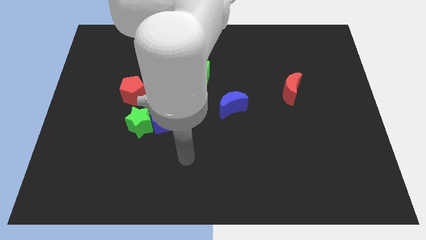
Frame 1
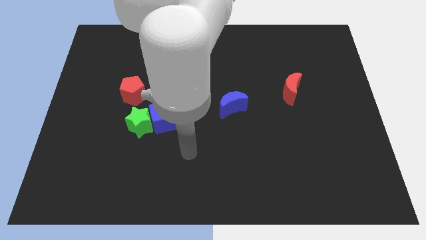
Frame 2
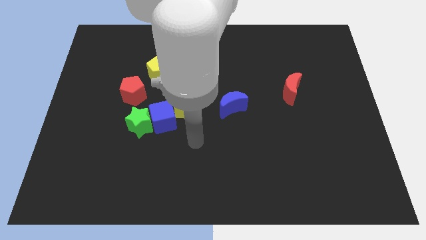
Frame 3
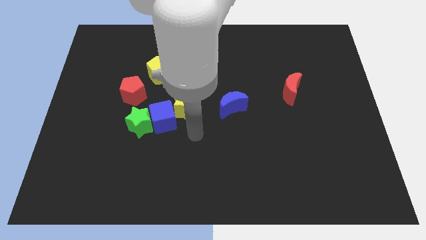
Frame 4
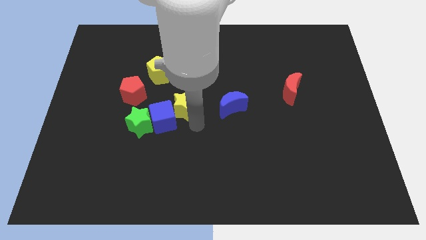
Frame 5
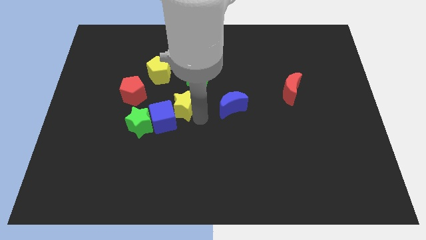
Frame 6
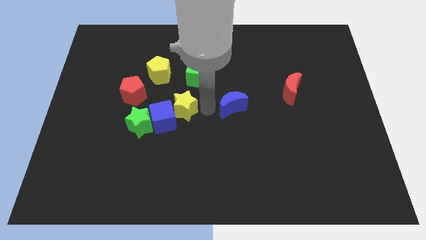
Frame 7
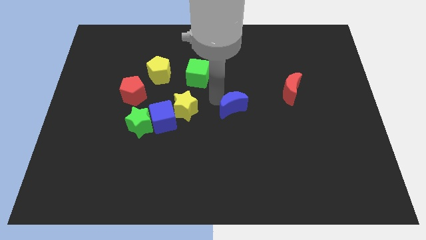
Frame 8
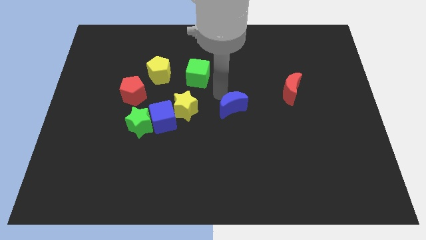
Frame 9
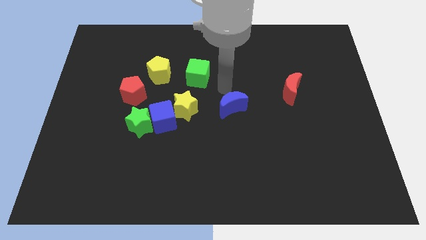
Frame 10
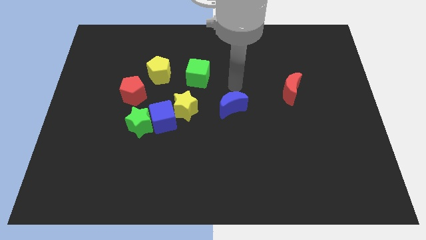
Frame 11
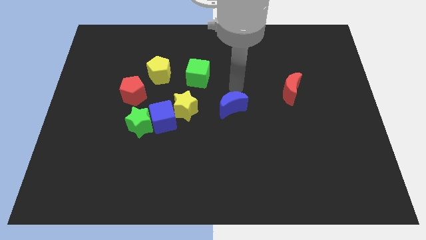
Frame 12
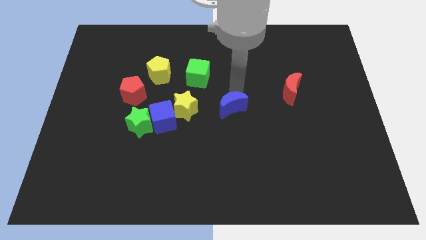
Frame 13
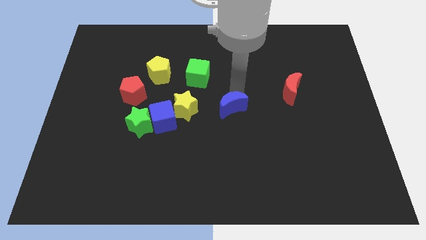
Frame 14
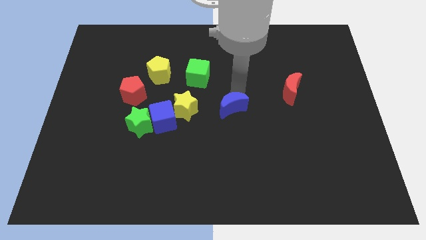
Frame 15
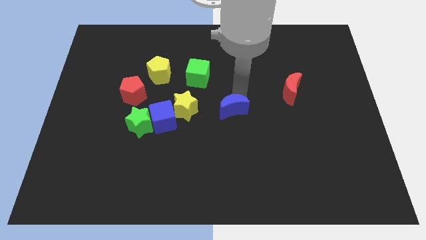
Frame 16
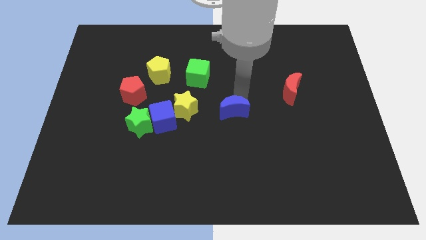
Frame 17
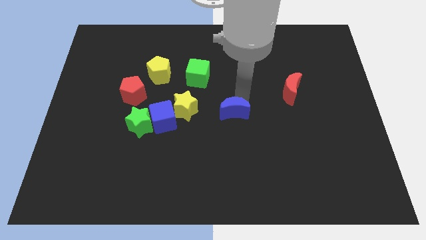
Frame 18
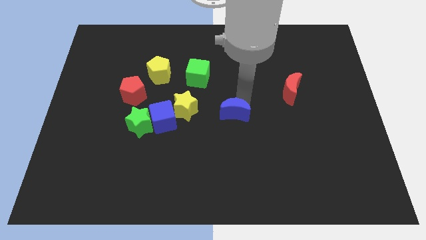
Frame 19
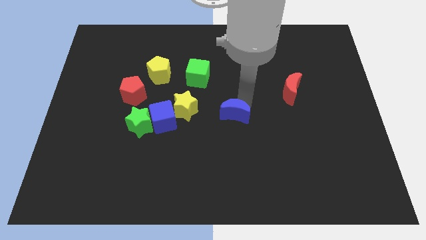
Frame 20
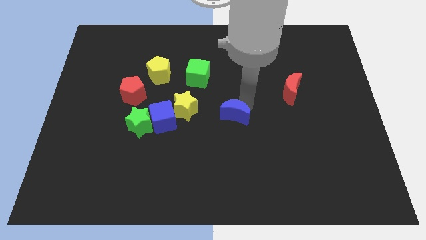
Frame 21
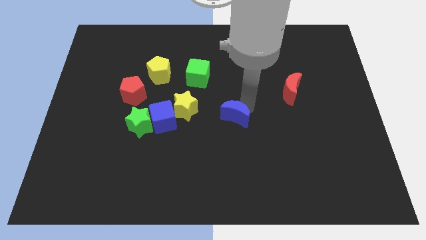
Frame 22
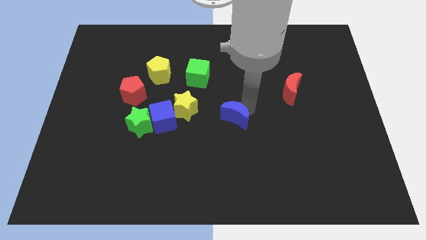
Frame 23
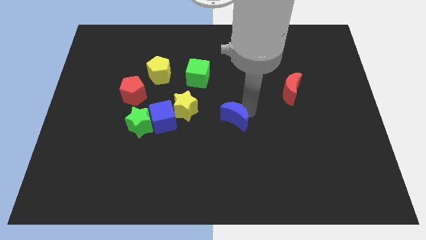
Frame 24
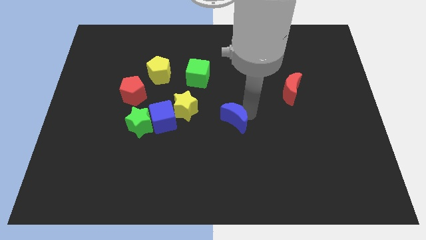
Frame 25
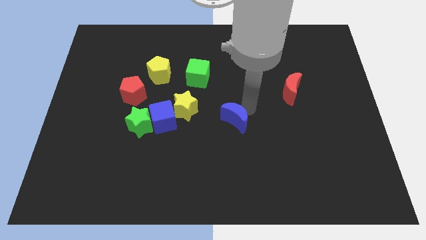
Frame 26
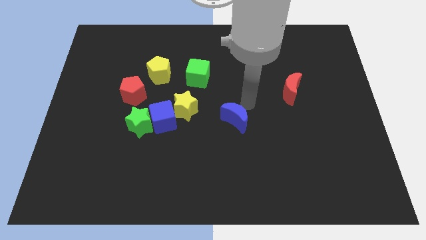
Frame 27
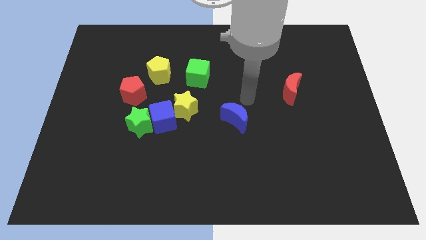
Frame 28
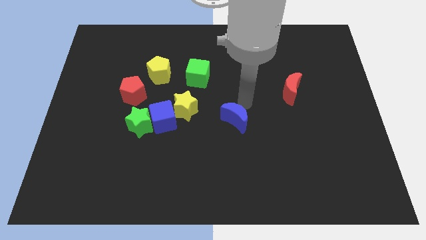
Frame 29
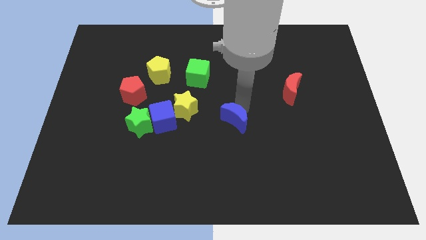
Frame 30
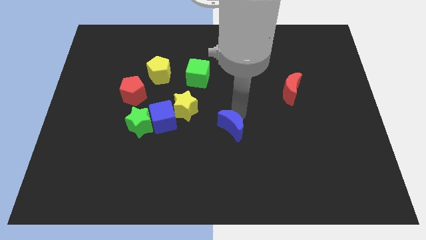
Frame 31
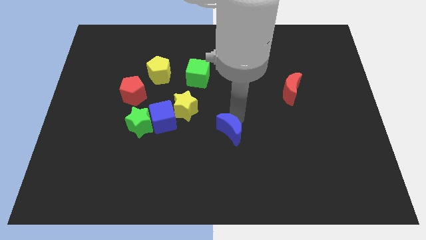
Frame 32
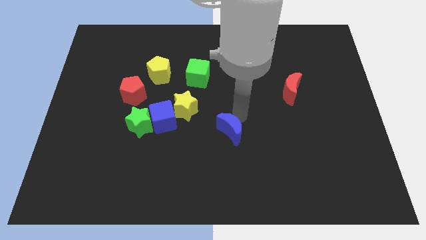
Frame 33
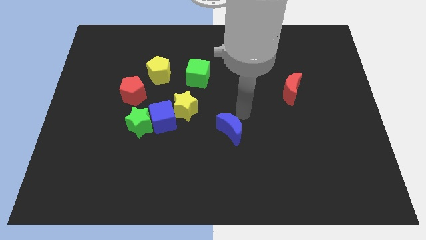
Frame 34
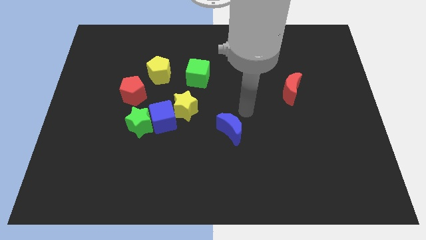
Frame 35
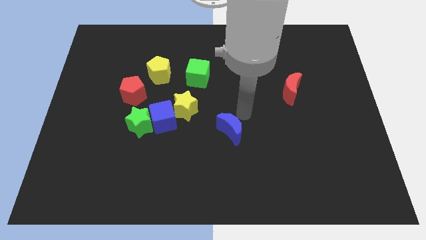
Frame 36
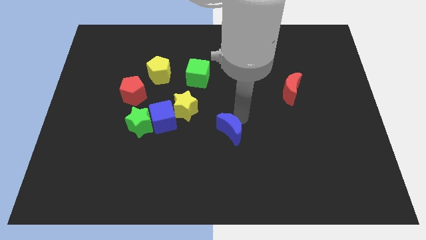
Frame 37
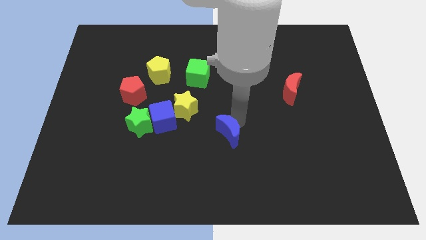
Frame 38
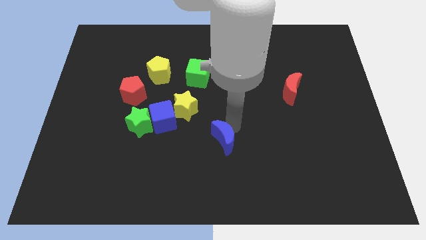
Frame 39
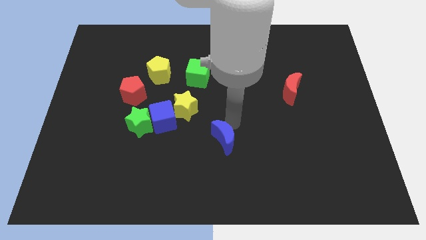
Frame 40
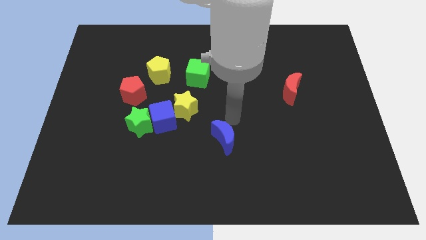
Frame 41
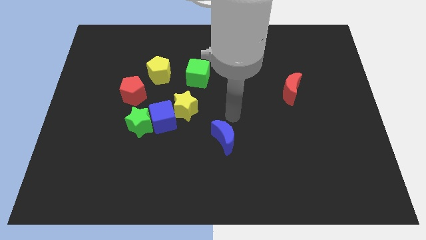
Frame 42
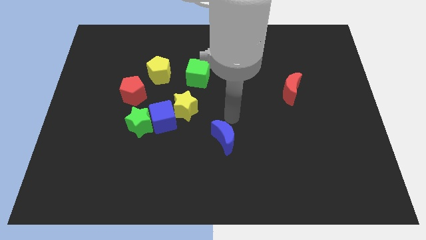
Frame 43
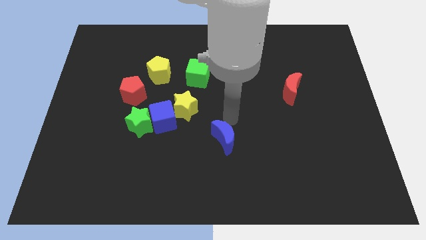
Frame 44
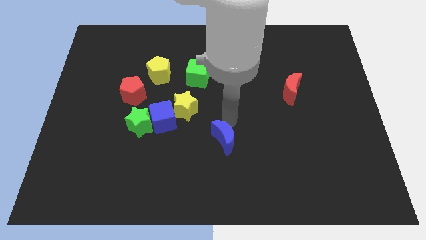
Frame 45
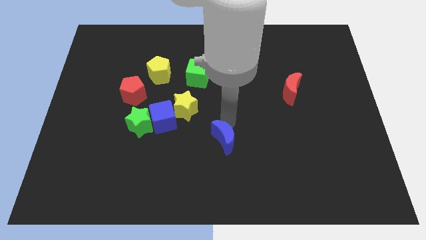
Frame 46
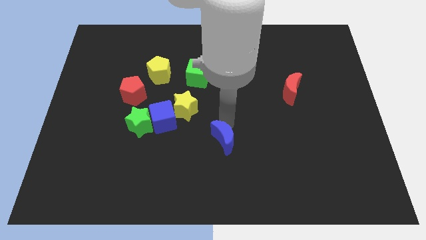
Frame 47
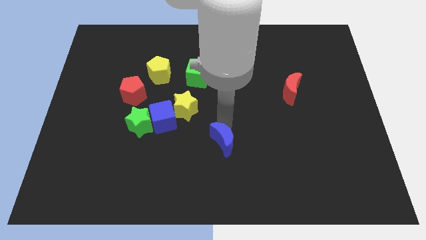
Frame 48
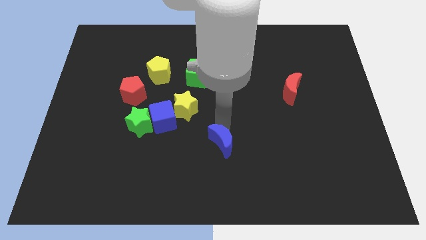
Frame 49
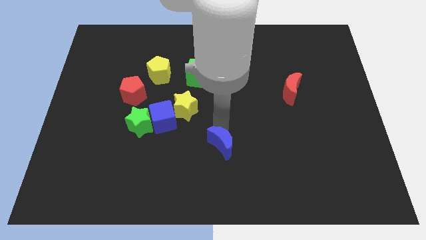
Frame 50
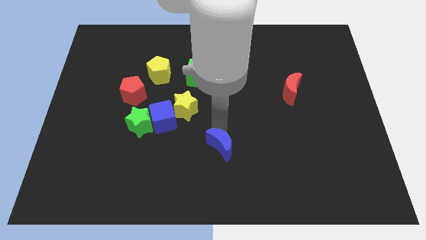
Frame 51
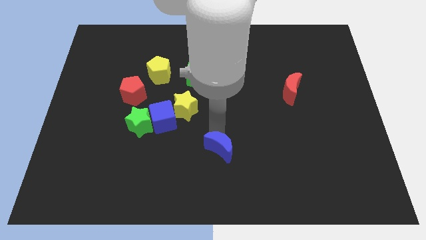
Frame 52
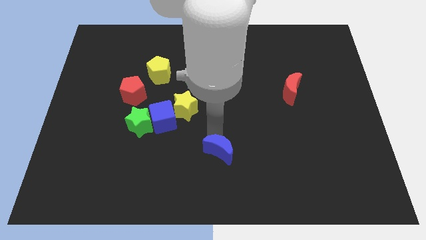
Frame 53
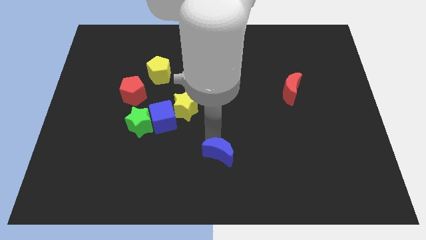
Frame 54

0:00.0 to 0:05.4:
slide the blue moon to the bottom

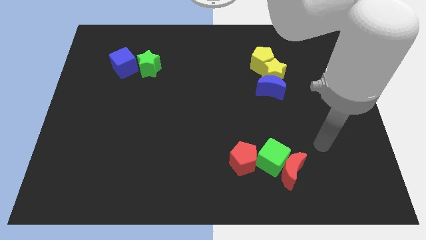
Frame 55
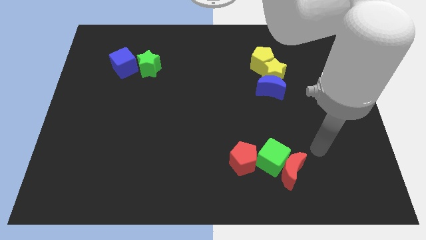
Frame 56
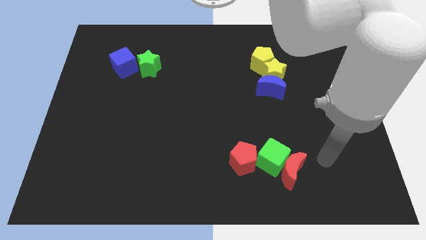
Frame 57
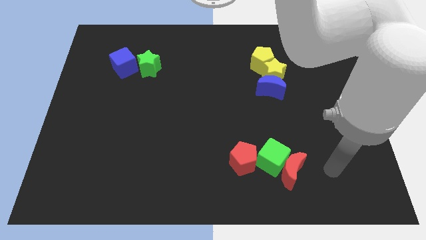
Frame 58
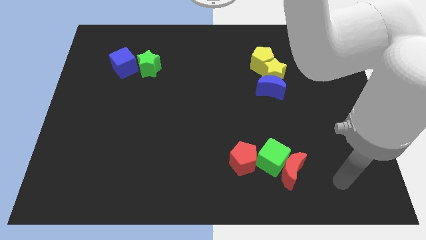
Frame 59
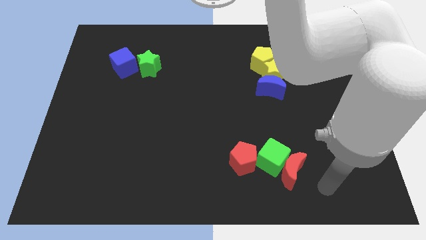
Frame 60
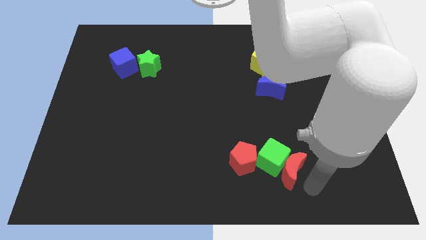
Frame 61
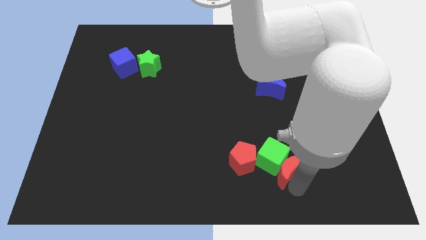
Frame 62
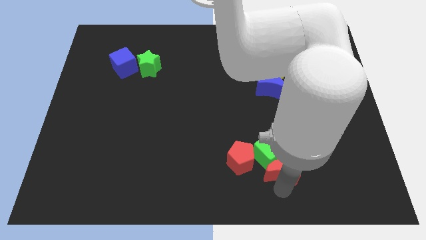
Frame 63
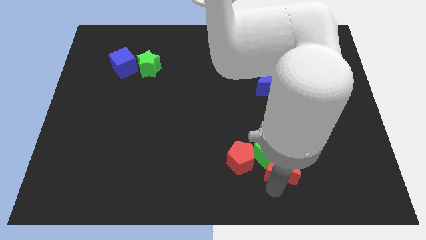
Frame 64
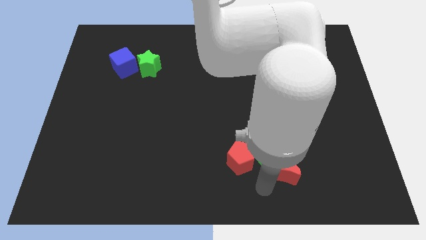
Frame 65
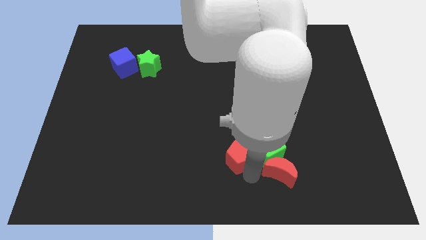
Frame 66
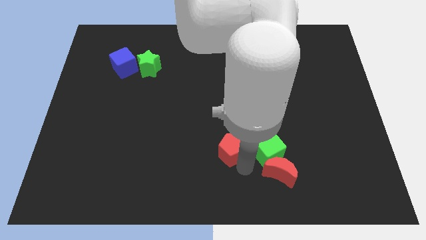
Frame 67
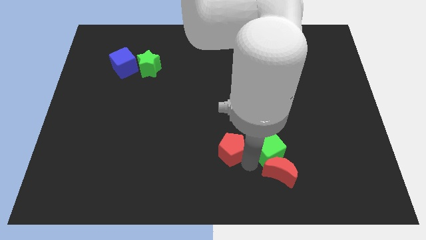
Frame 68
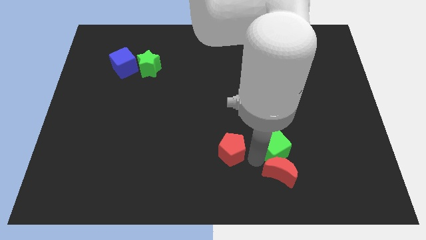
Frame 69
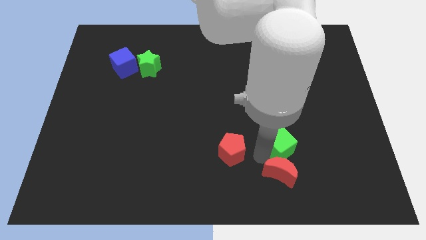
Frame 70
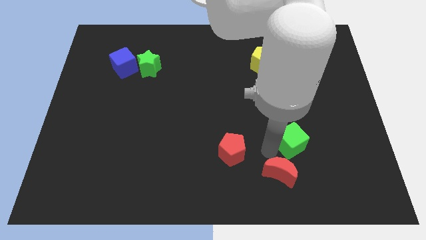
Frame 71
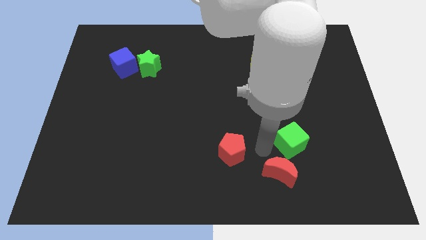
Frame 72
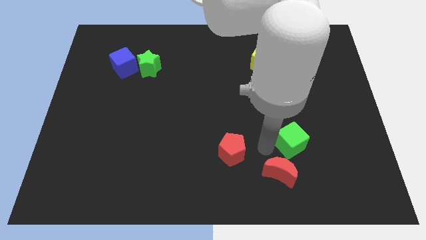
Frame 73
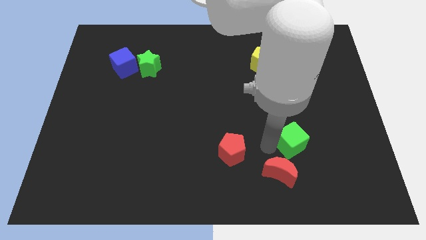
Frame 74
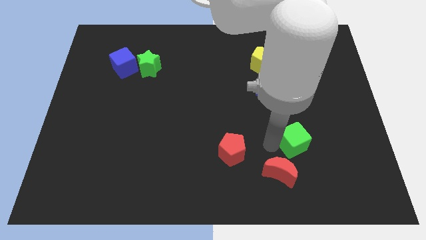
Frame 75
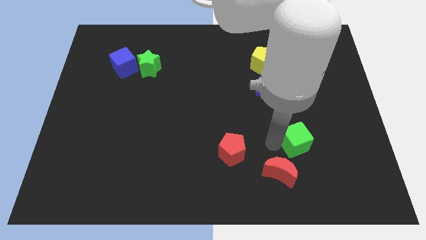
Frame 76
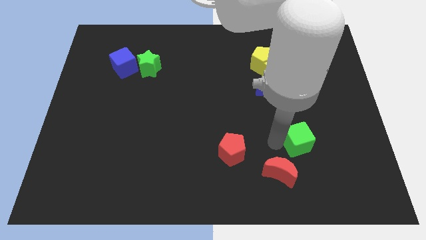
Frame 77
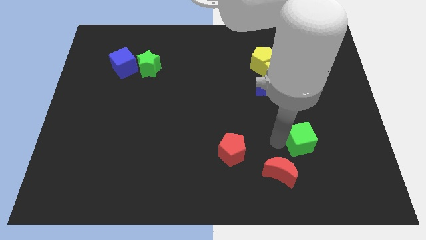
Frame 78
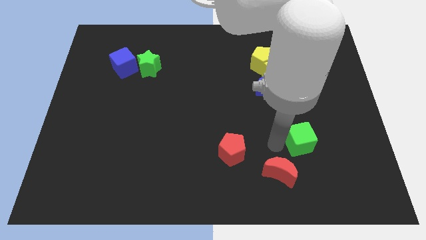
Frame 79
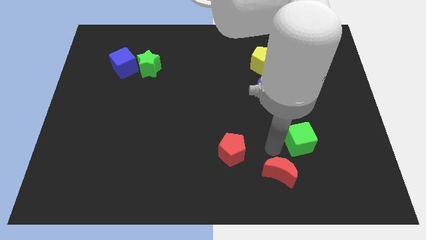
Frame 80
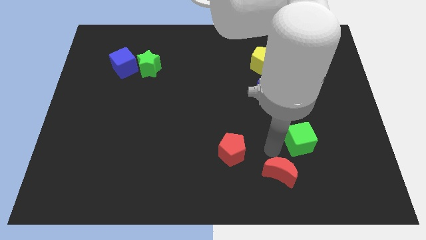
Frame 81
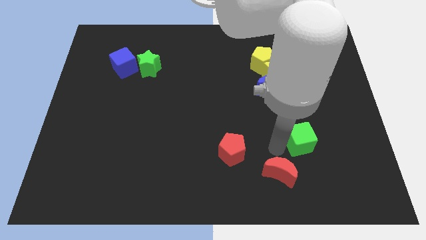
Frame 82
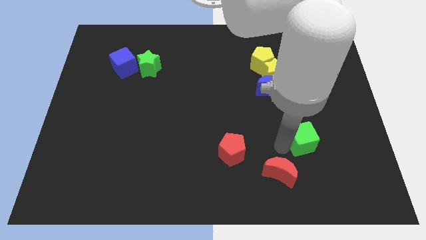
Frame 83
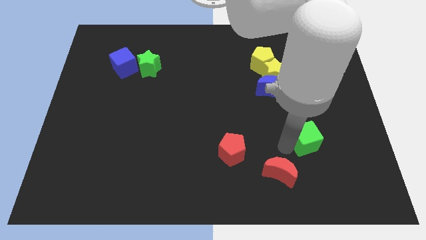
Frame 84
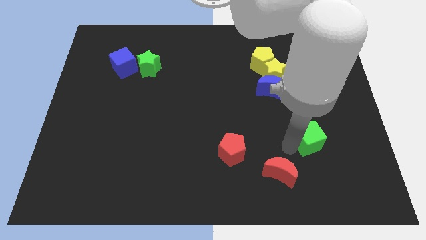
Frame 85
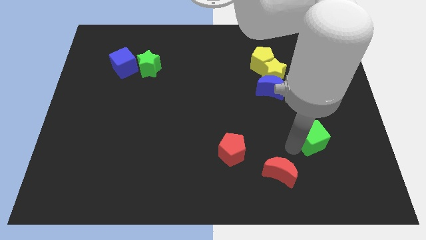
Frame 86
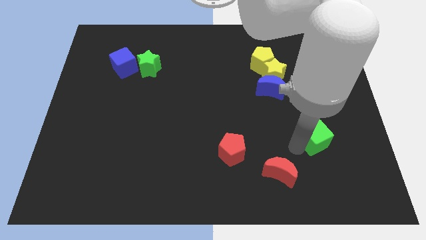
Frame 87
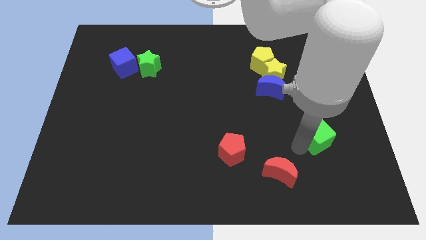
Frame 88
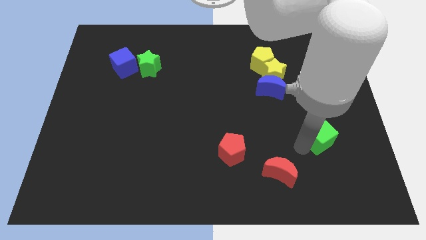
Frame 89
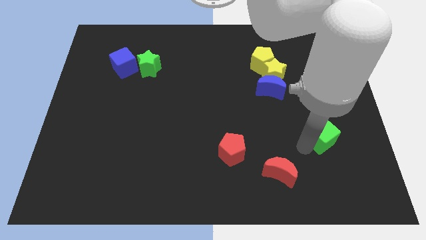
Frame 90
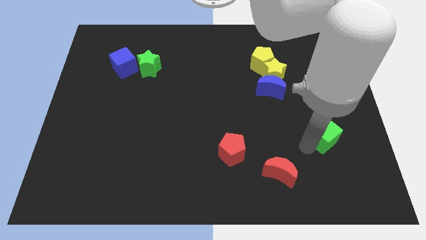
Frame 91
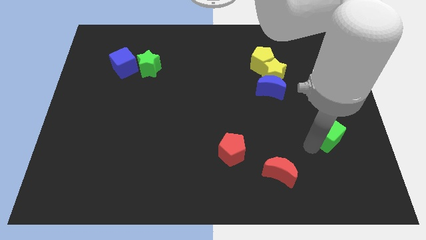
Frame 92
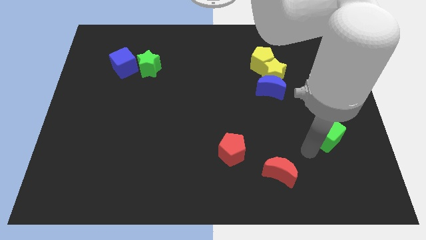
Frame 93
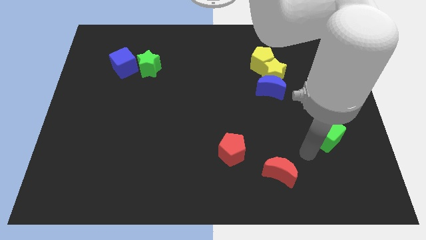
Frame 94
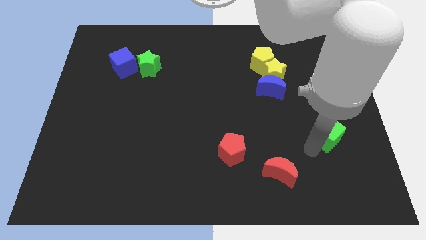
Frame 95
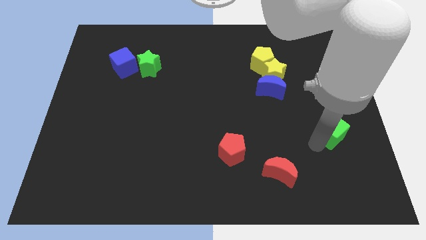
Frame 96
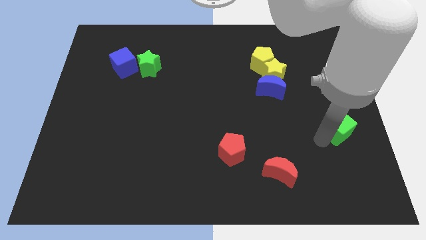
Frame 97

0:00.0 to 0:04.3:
slide the green cube to the center right
